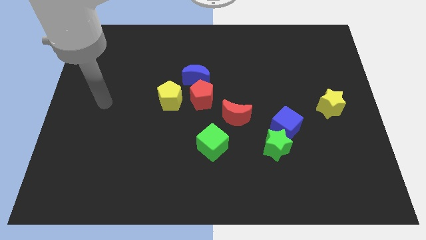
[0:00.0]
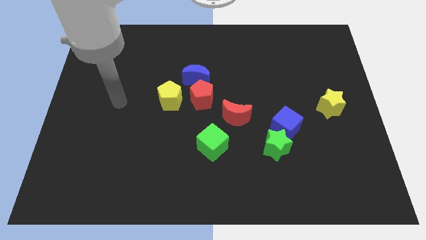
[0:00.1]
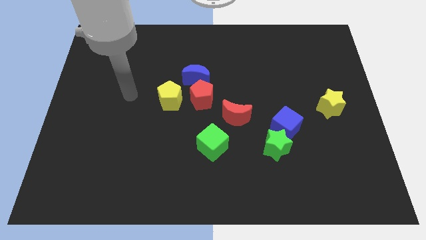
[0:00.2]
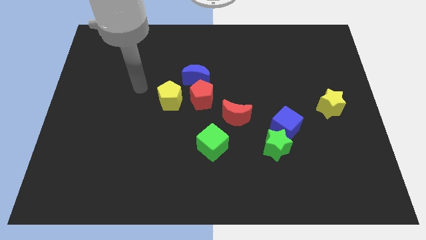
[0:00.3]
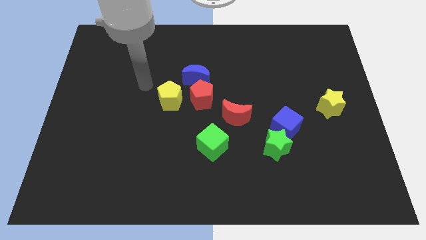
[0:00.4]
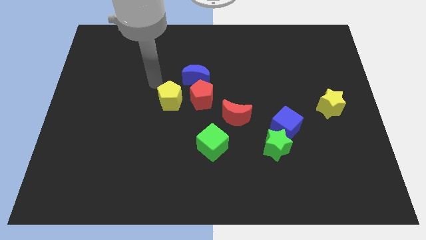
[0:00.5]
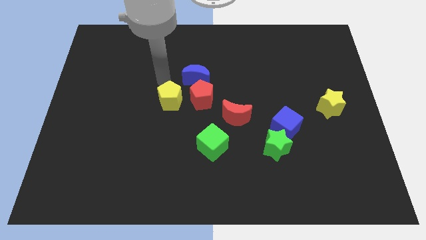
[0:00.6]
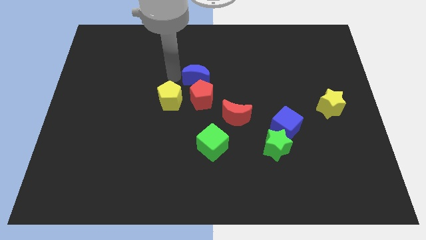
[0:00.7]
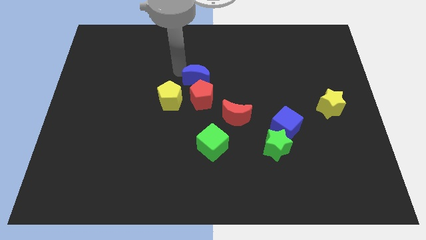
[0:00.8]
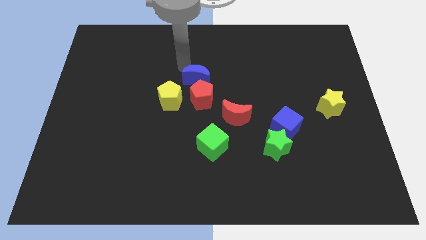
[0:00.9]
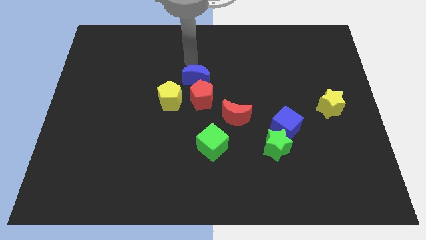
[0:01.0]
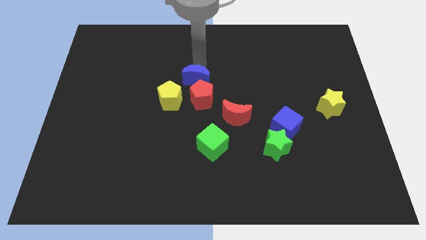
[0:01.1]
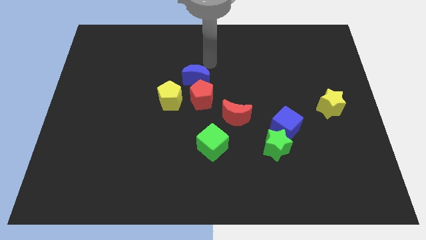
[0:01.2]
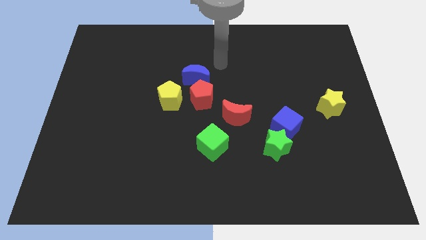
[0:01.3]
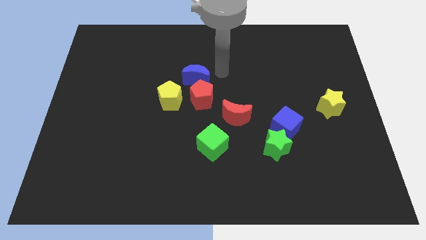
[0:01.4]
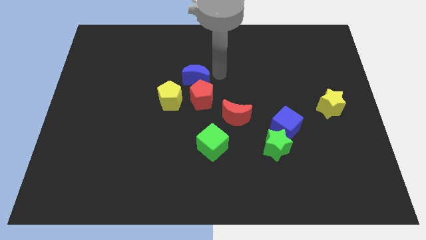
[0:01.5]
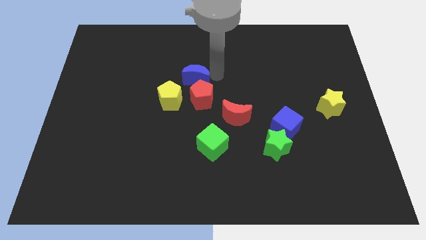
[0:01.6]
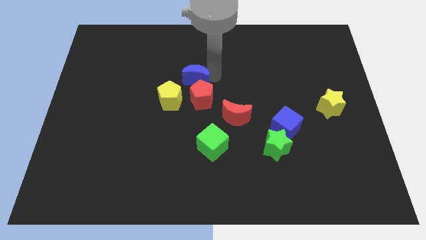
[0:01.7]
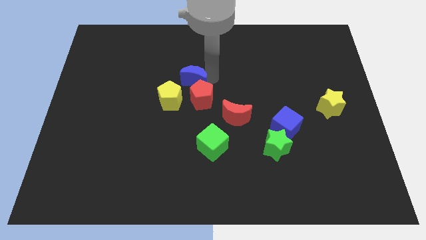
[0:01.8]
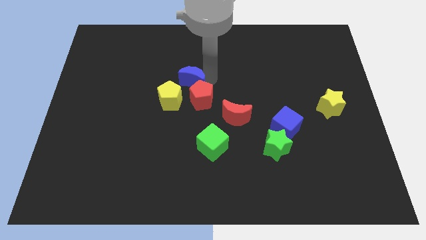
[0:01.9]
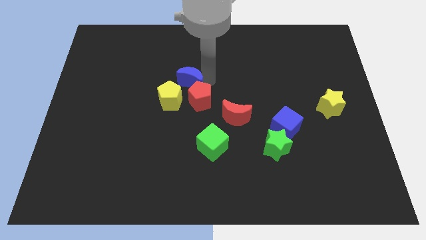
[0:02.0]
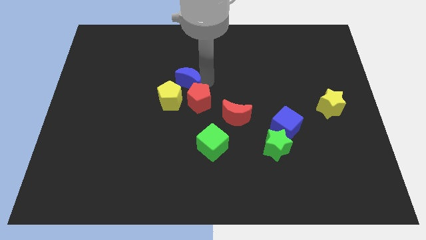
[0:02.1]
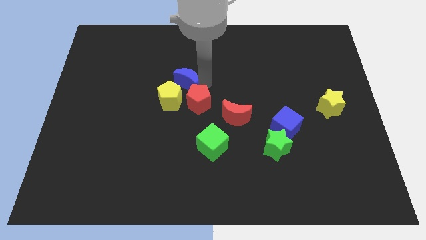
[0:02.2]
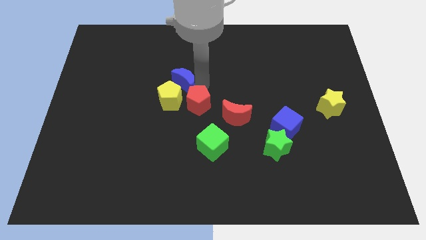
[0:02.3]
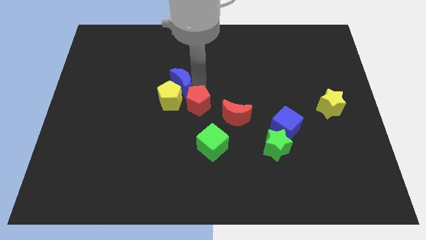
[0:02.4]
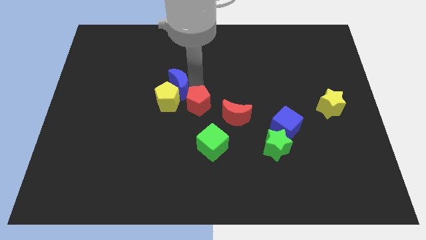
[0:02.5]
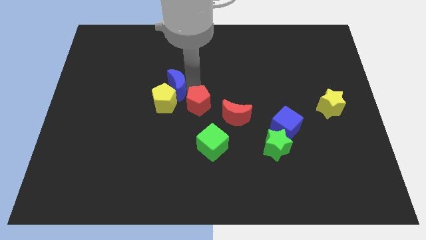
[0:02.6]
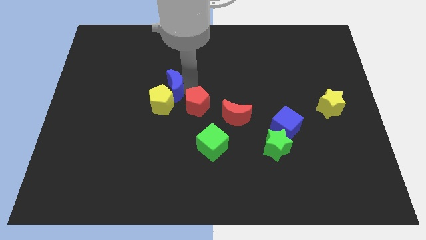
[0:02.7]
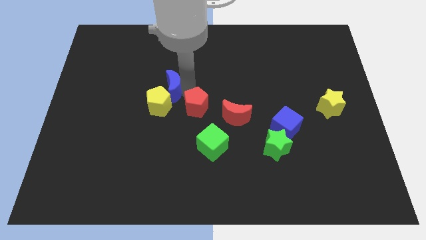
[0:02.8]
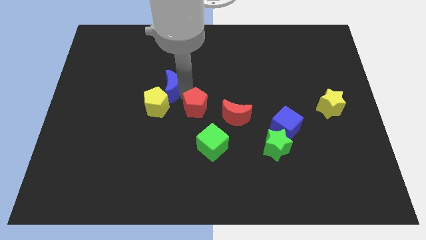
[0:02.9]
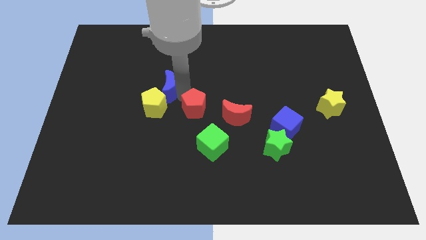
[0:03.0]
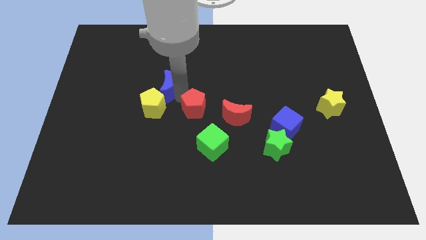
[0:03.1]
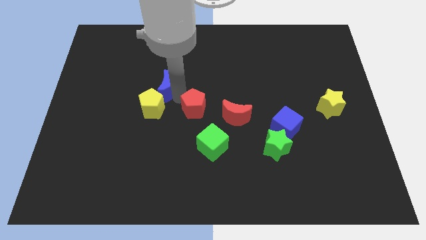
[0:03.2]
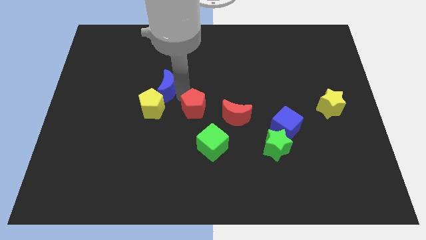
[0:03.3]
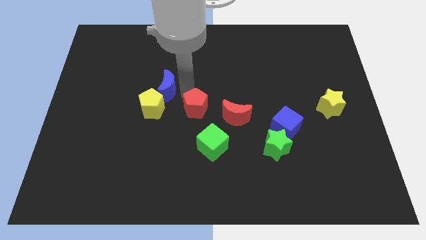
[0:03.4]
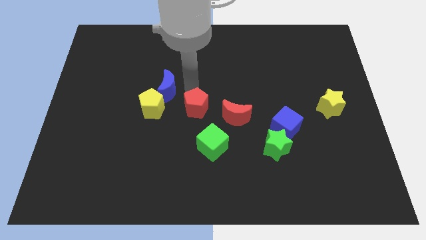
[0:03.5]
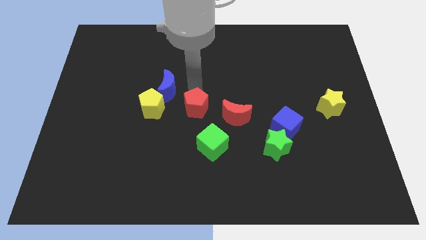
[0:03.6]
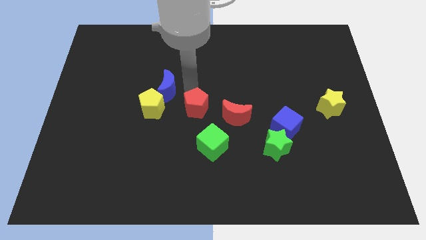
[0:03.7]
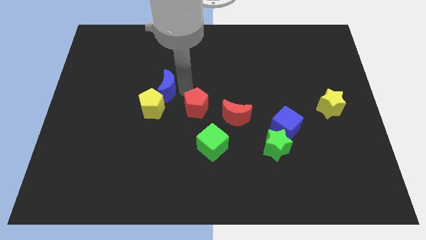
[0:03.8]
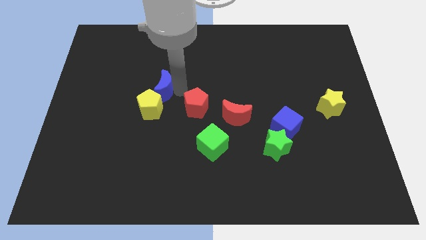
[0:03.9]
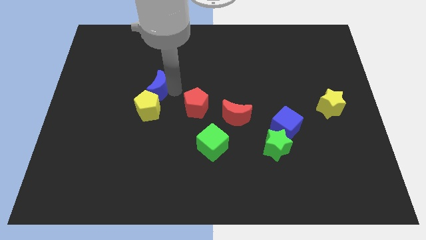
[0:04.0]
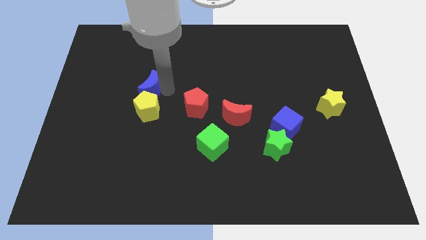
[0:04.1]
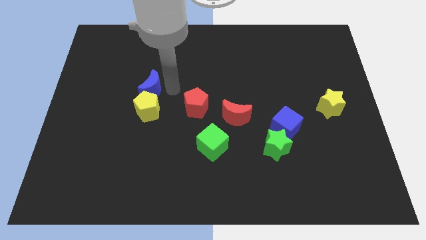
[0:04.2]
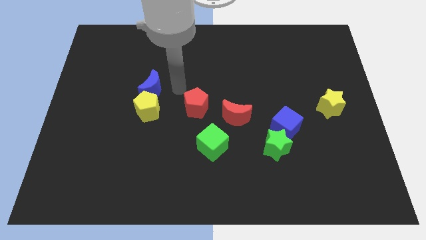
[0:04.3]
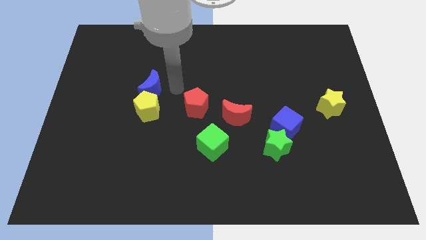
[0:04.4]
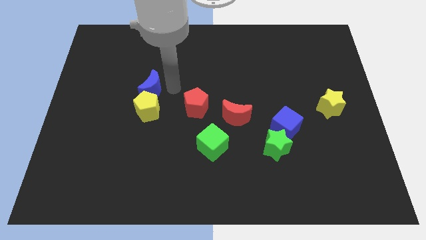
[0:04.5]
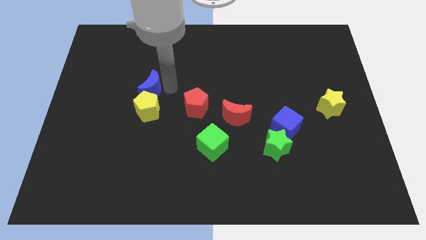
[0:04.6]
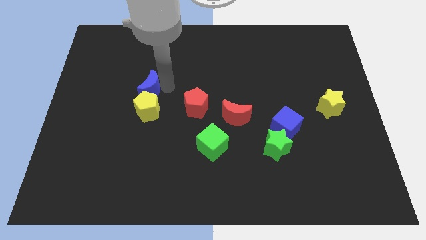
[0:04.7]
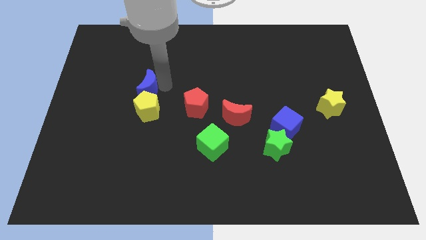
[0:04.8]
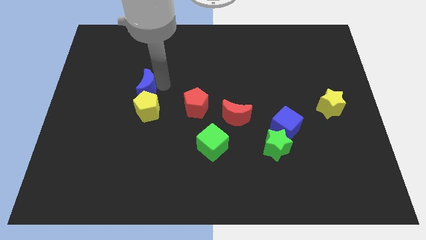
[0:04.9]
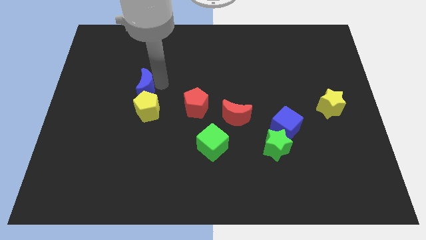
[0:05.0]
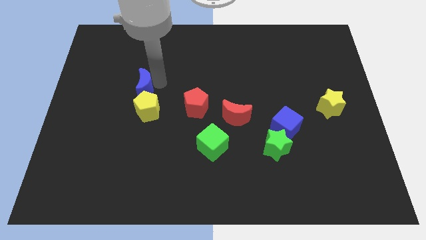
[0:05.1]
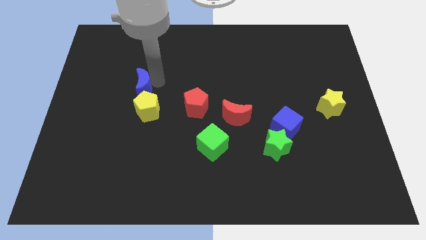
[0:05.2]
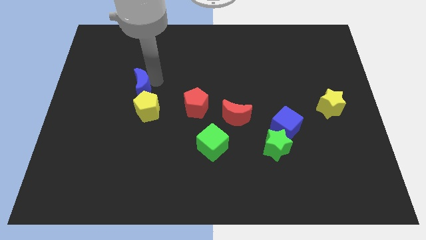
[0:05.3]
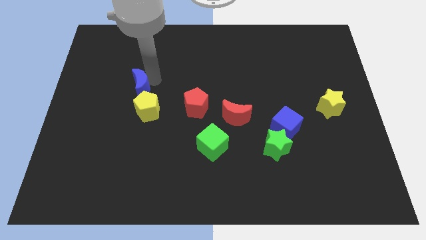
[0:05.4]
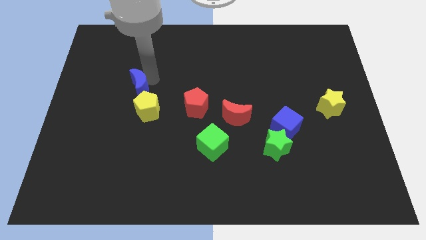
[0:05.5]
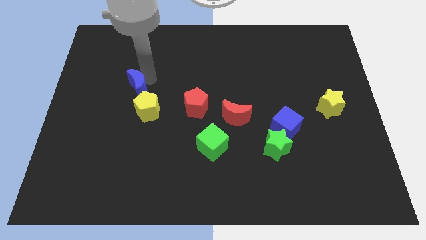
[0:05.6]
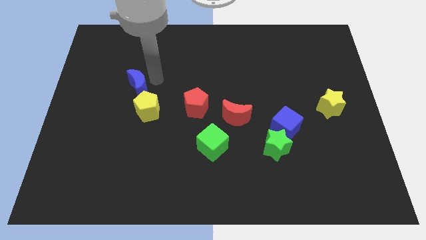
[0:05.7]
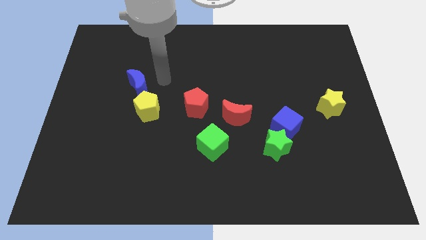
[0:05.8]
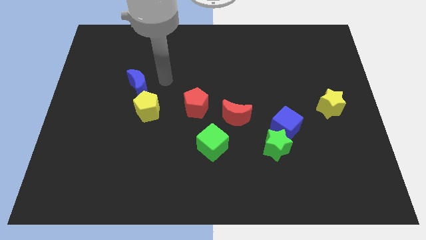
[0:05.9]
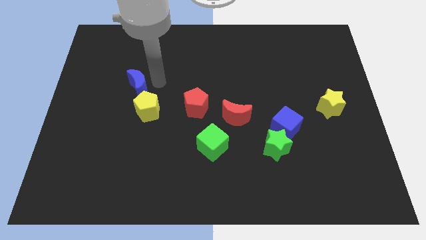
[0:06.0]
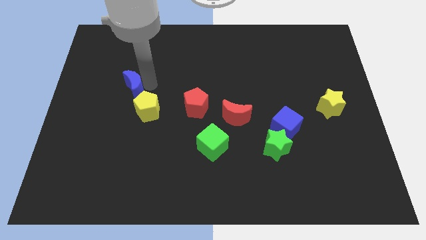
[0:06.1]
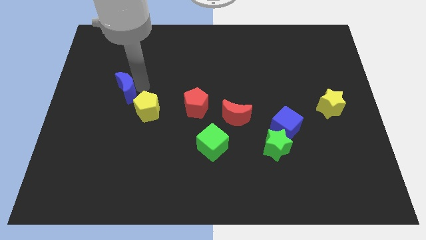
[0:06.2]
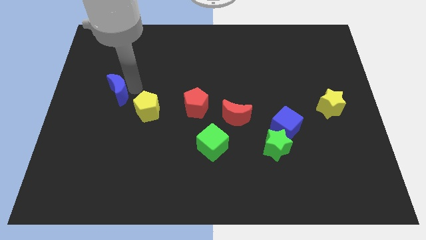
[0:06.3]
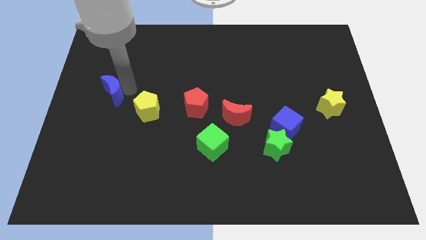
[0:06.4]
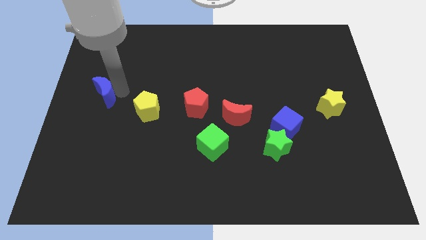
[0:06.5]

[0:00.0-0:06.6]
put the blue moon to the left side of the board
